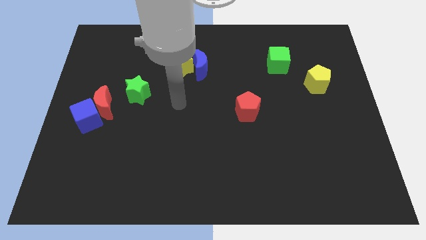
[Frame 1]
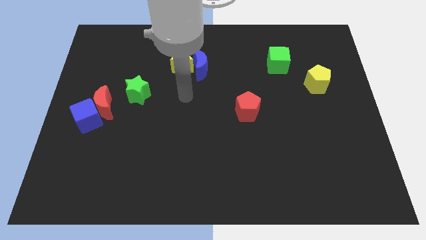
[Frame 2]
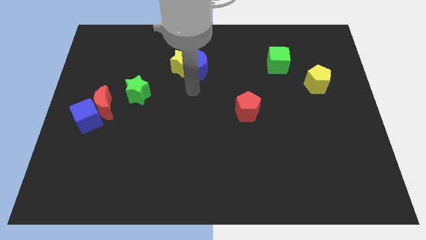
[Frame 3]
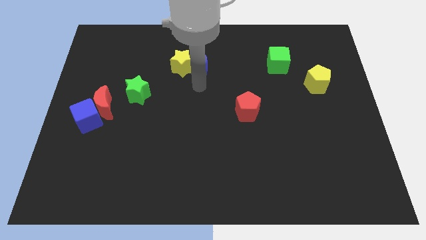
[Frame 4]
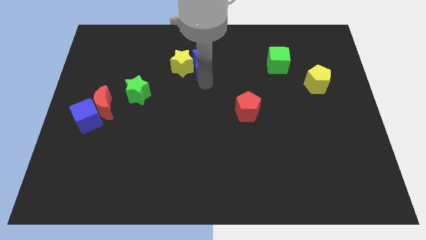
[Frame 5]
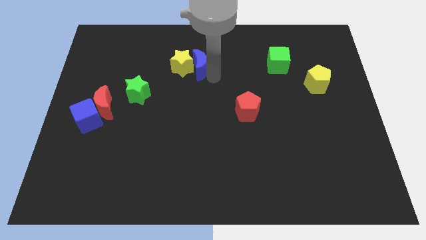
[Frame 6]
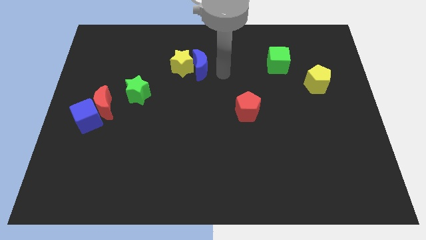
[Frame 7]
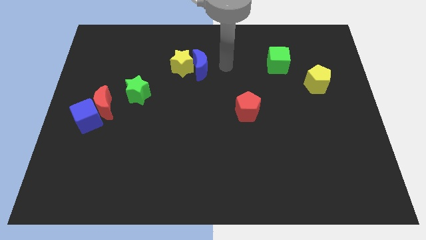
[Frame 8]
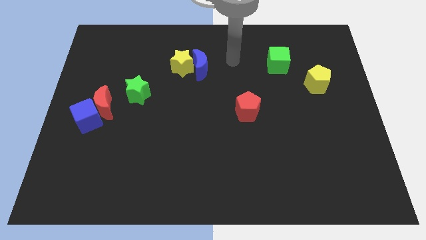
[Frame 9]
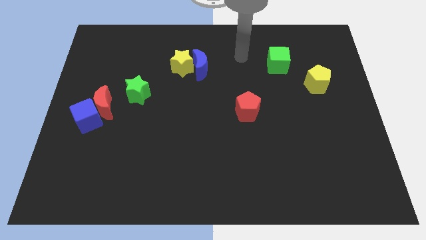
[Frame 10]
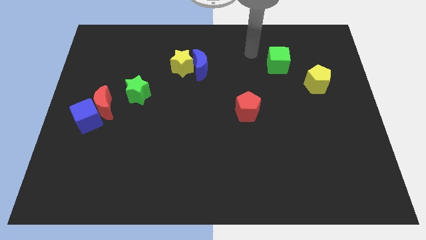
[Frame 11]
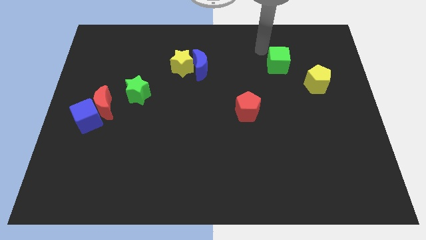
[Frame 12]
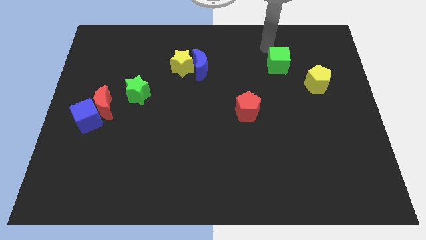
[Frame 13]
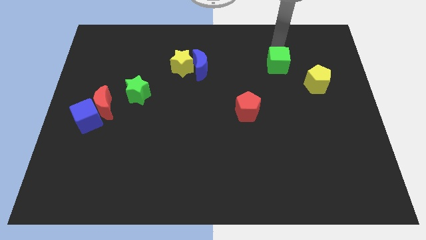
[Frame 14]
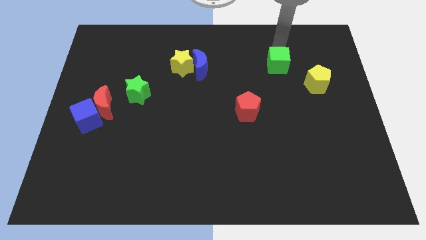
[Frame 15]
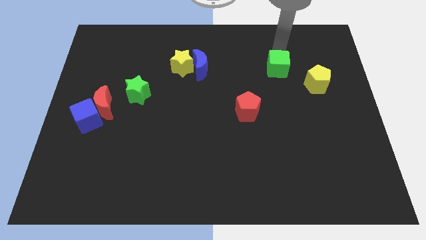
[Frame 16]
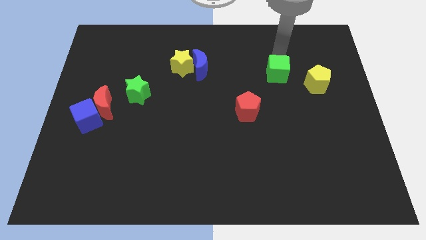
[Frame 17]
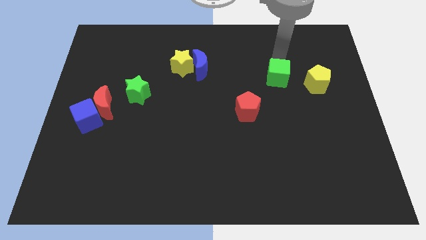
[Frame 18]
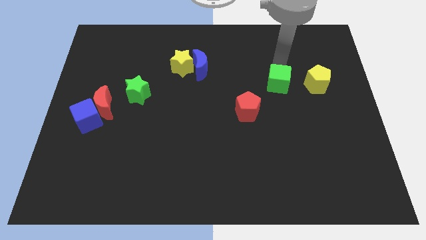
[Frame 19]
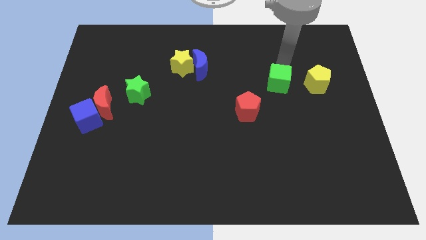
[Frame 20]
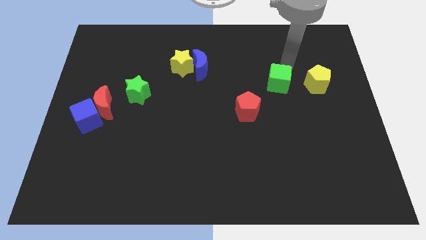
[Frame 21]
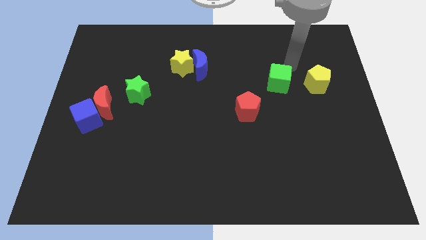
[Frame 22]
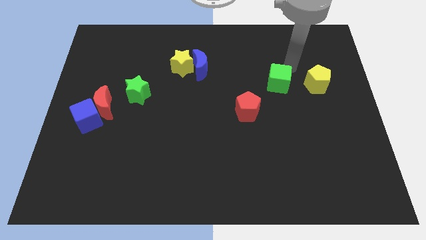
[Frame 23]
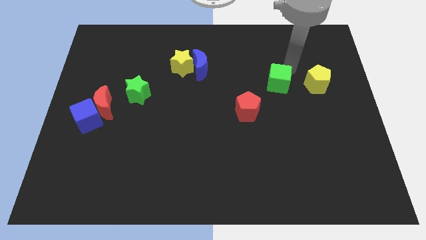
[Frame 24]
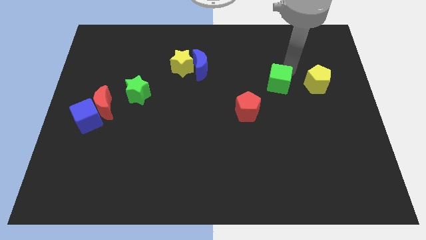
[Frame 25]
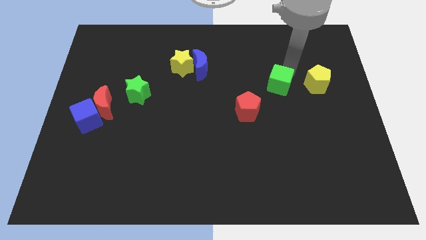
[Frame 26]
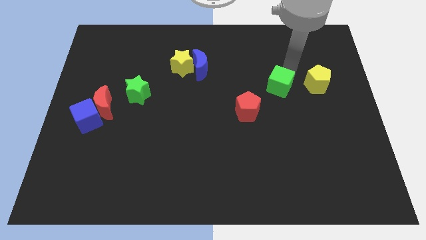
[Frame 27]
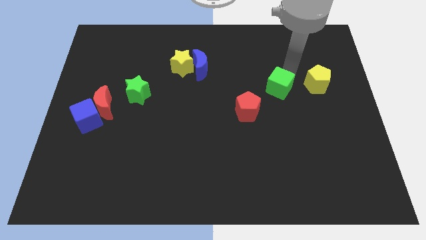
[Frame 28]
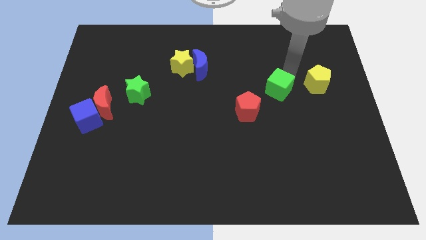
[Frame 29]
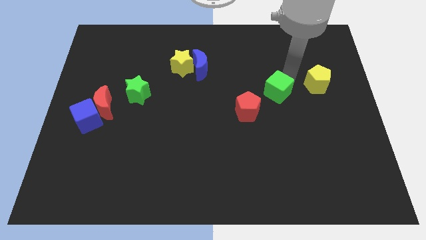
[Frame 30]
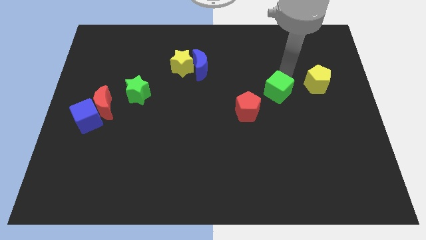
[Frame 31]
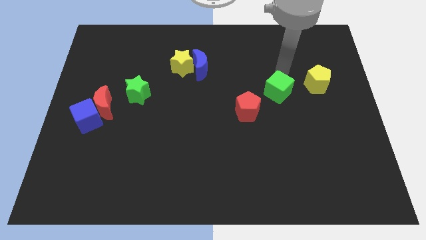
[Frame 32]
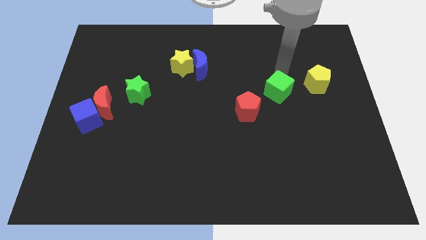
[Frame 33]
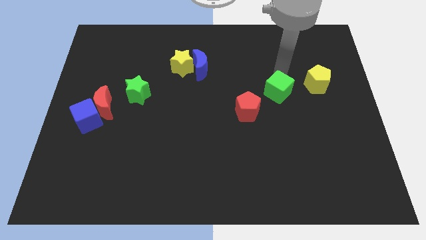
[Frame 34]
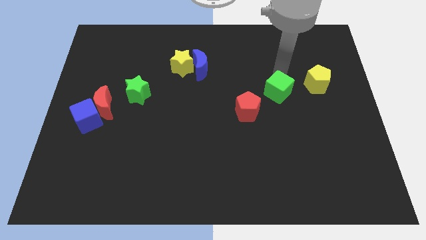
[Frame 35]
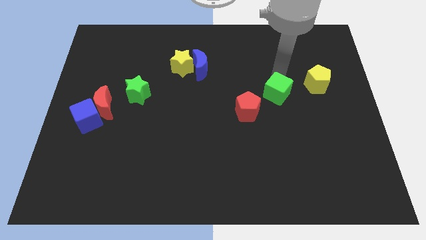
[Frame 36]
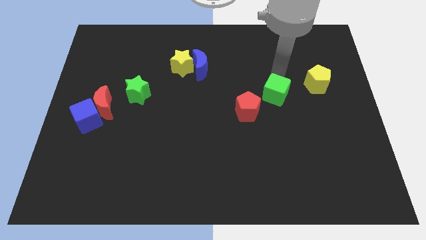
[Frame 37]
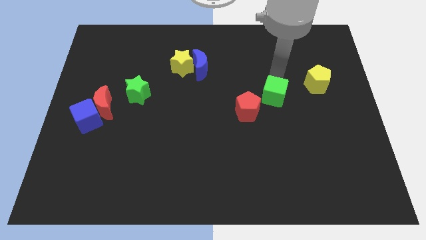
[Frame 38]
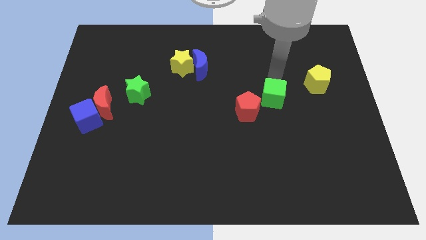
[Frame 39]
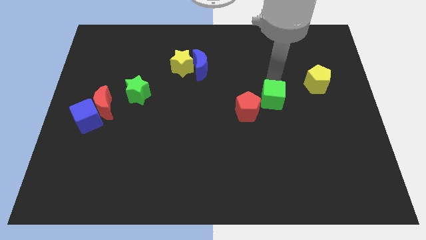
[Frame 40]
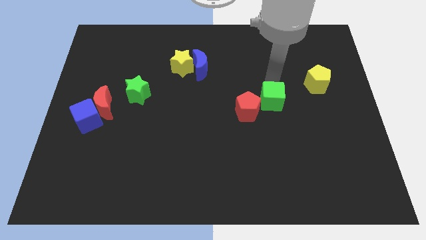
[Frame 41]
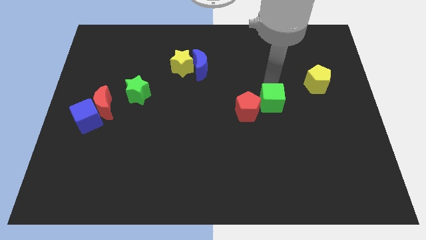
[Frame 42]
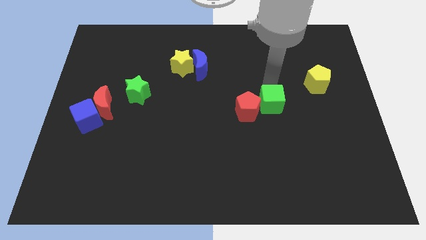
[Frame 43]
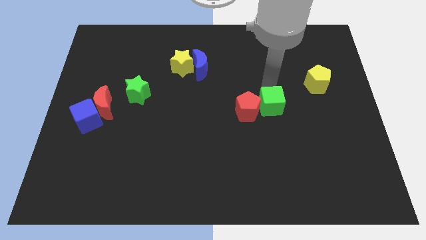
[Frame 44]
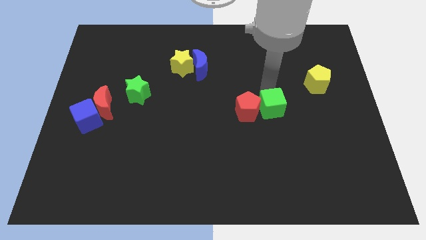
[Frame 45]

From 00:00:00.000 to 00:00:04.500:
move the green cube diagonally down and to the right of the red pentagon

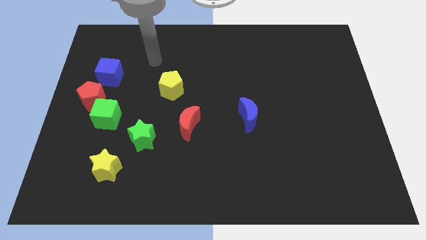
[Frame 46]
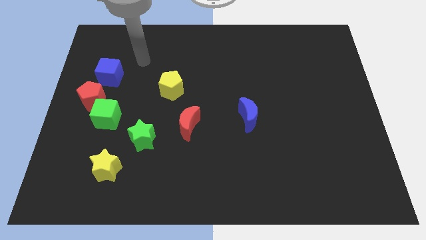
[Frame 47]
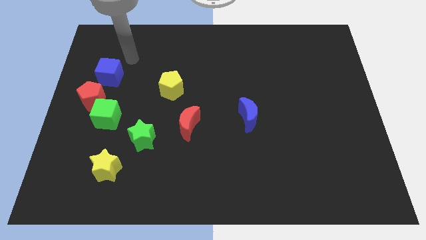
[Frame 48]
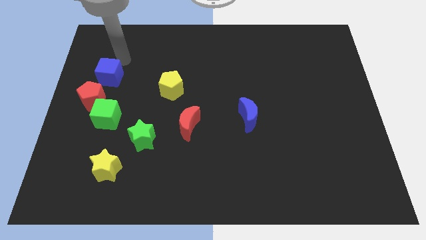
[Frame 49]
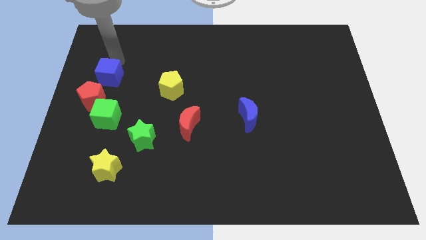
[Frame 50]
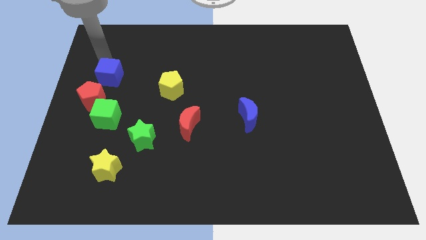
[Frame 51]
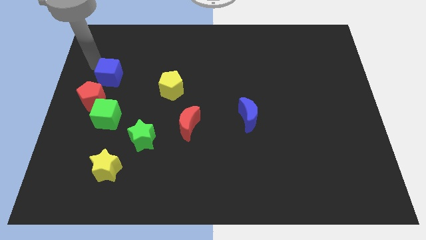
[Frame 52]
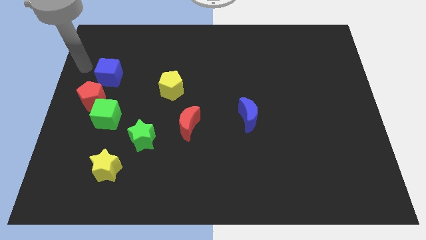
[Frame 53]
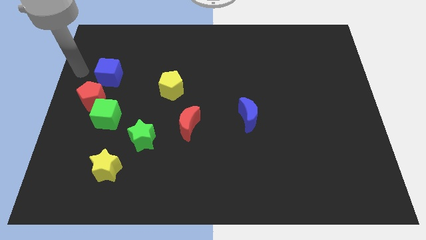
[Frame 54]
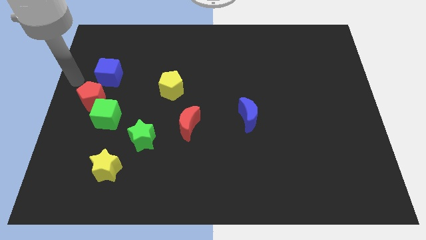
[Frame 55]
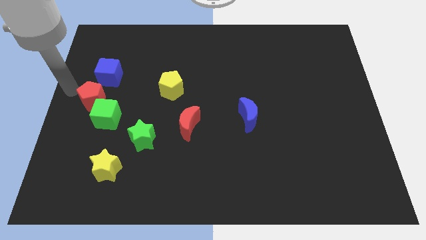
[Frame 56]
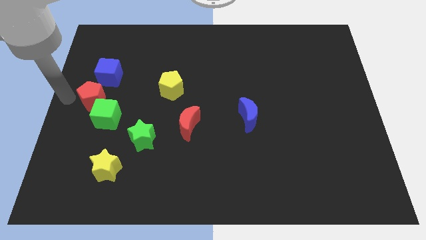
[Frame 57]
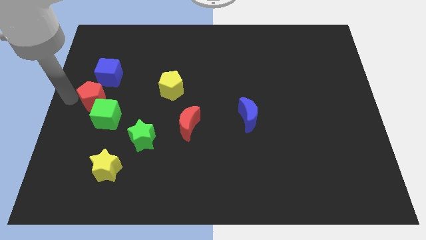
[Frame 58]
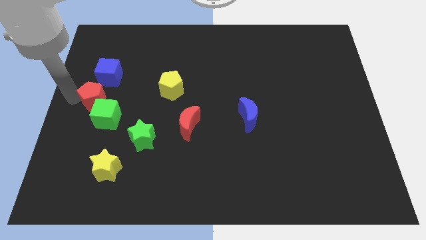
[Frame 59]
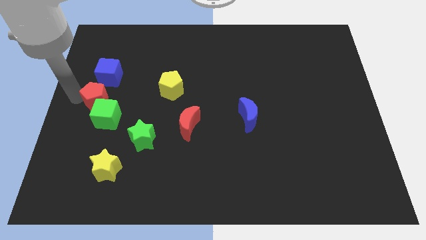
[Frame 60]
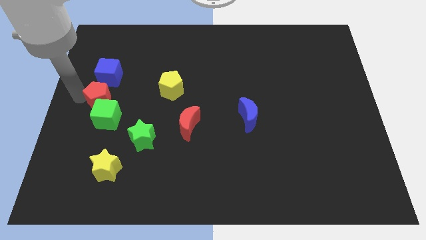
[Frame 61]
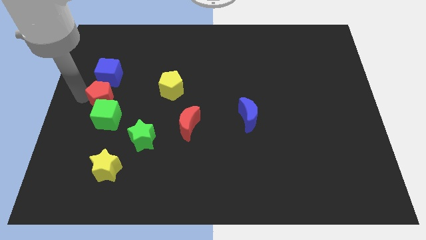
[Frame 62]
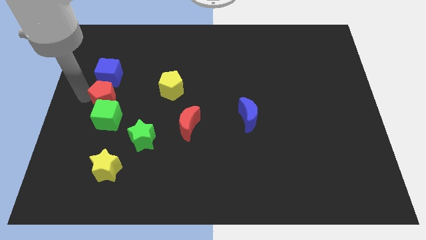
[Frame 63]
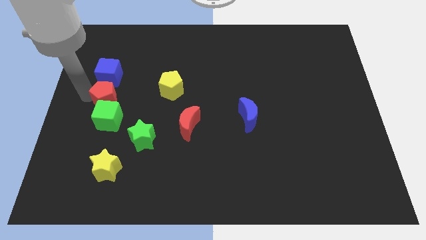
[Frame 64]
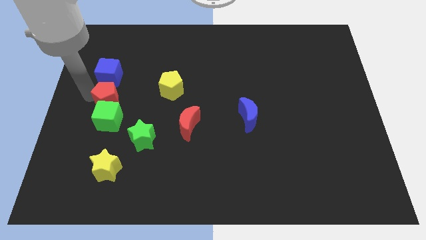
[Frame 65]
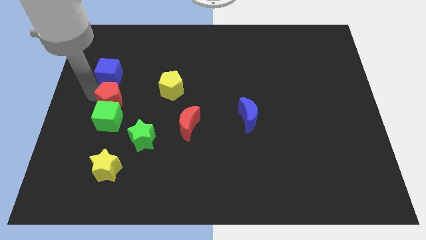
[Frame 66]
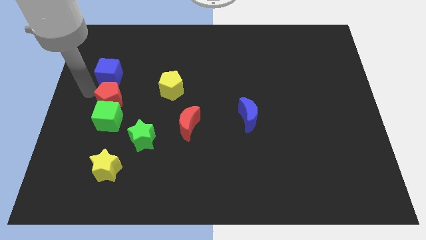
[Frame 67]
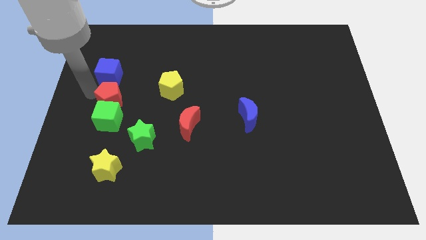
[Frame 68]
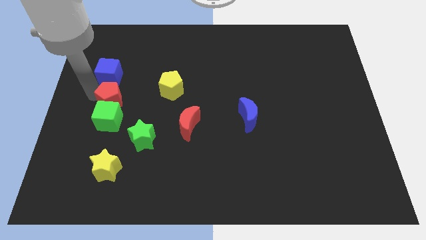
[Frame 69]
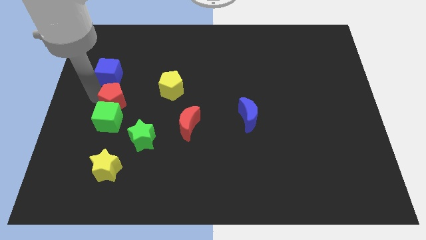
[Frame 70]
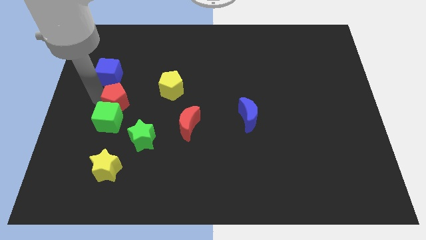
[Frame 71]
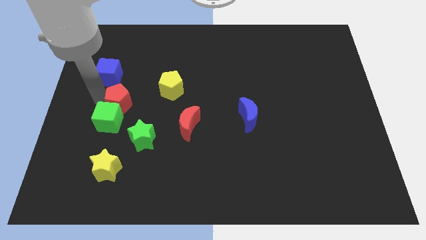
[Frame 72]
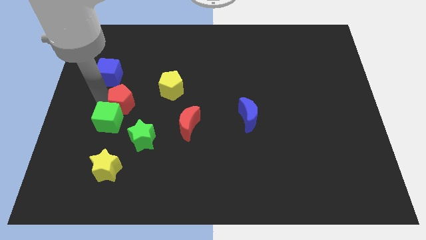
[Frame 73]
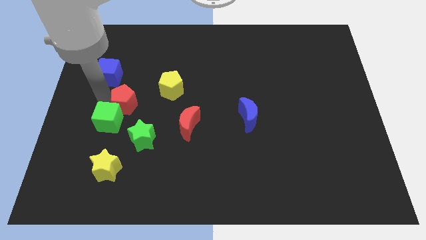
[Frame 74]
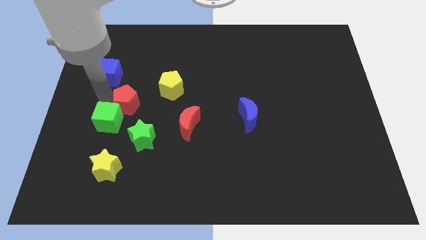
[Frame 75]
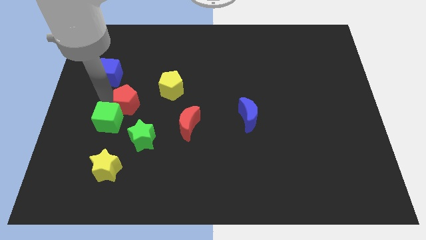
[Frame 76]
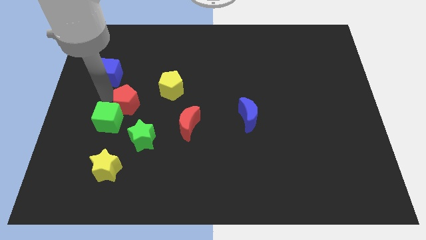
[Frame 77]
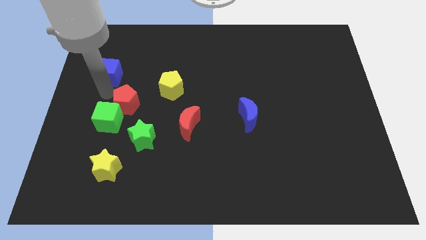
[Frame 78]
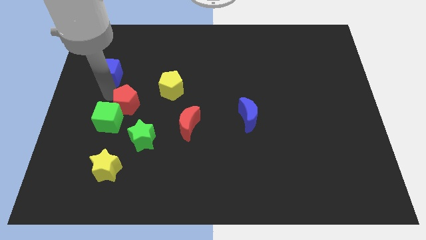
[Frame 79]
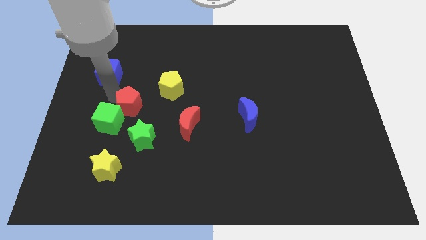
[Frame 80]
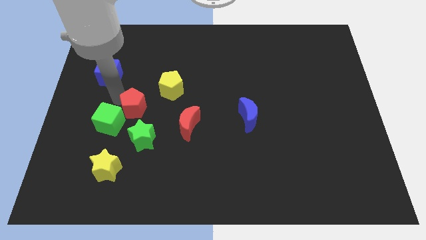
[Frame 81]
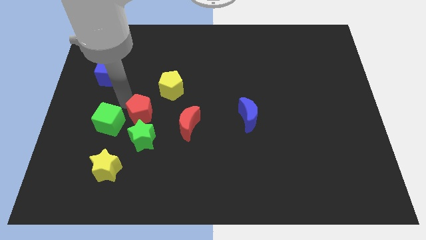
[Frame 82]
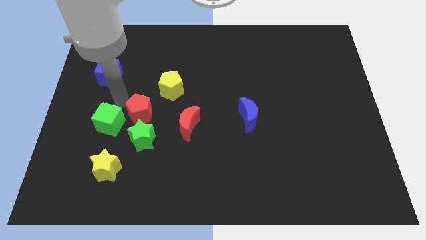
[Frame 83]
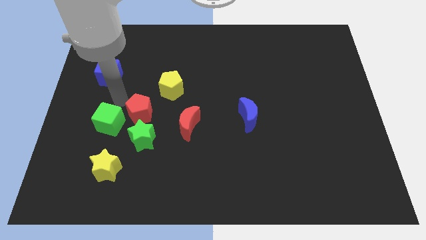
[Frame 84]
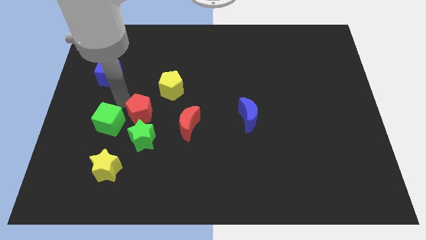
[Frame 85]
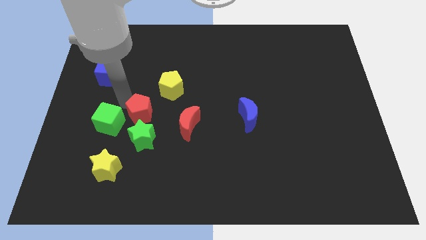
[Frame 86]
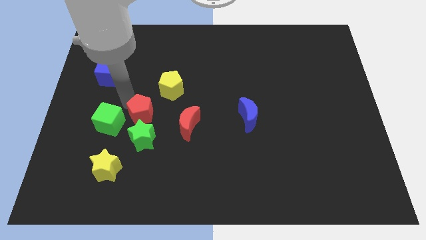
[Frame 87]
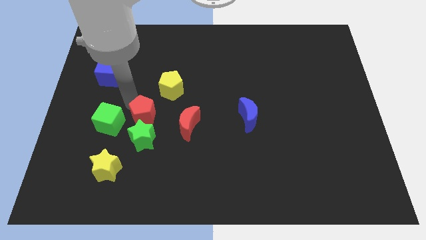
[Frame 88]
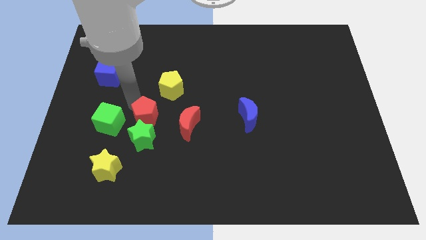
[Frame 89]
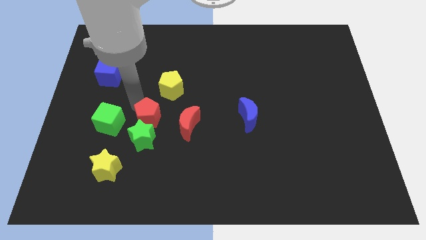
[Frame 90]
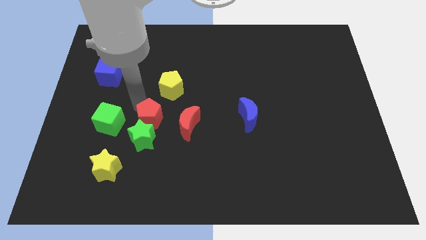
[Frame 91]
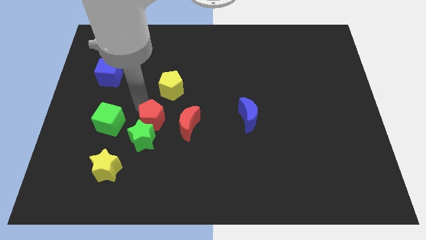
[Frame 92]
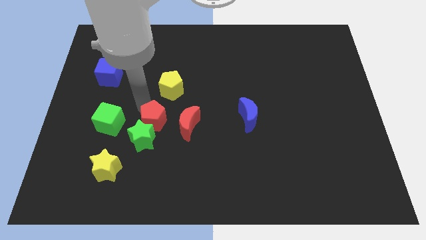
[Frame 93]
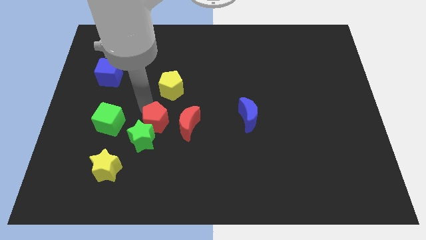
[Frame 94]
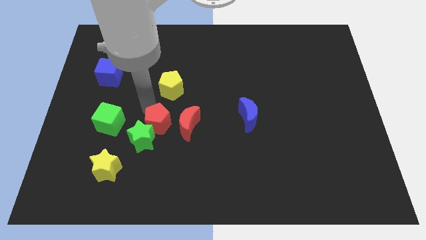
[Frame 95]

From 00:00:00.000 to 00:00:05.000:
slide the red pentagon right of the green star
